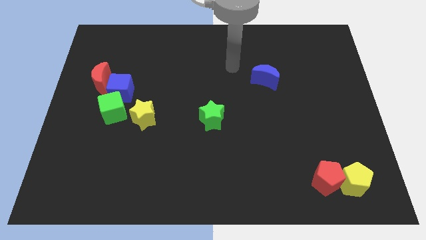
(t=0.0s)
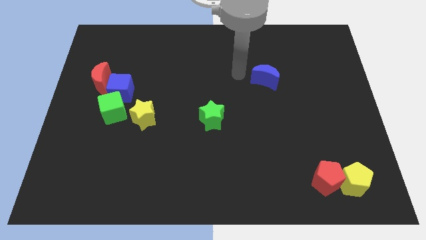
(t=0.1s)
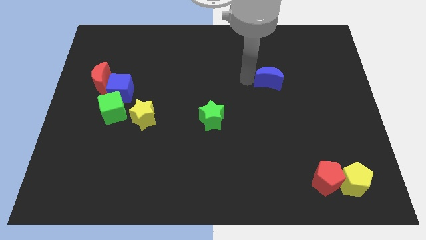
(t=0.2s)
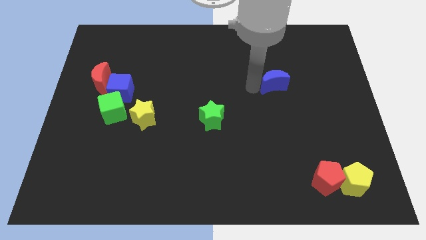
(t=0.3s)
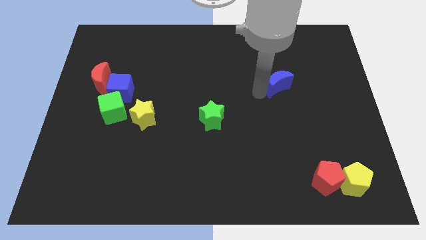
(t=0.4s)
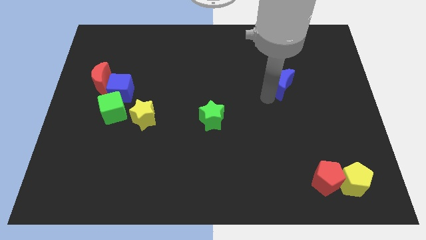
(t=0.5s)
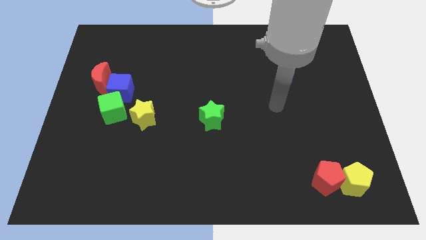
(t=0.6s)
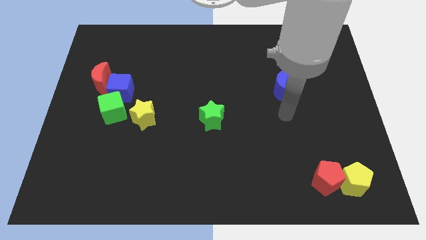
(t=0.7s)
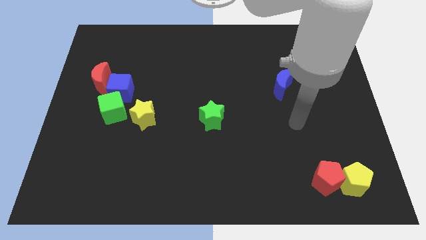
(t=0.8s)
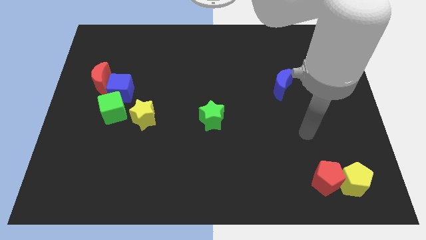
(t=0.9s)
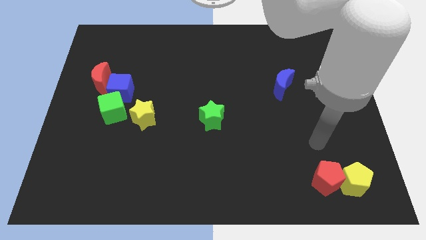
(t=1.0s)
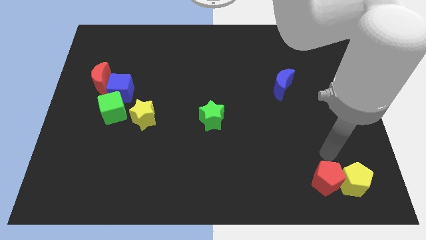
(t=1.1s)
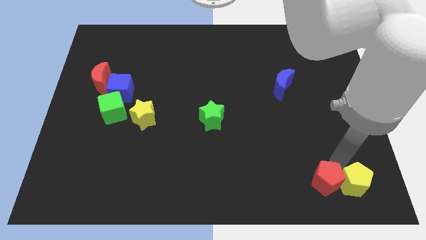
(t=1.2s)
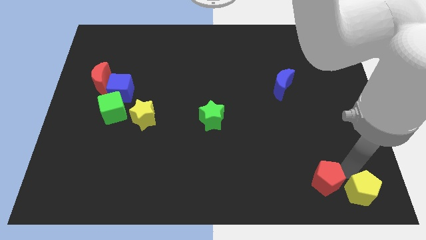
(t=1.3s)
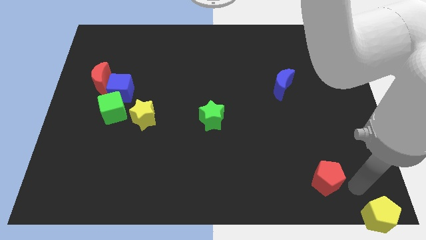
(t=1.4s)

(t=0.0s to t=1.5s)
pull the red pentagon apart from the yellow pentagon

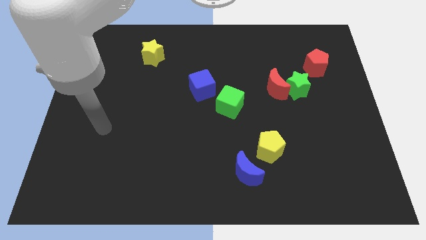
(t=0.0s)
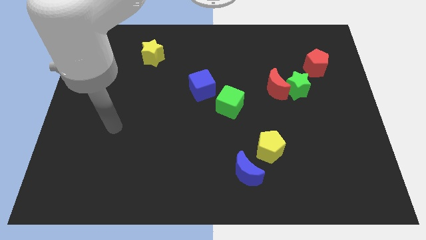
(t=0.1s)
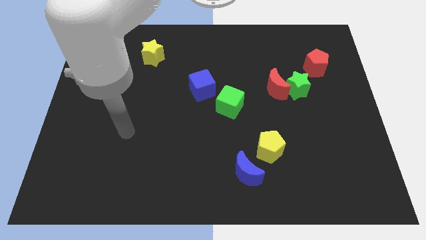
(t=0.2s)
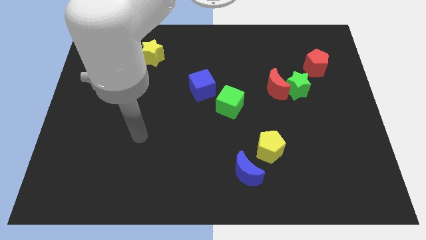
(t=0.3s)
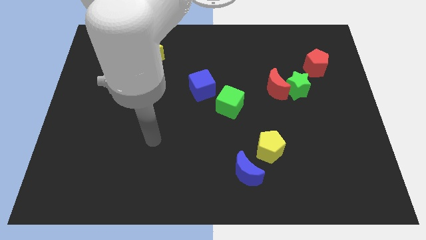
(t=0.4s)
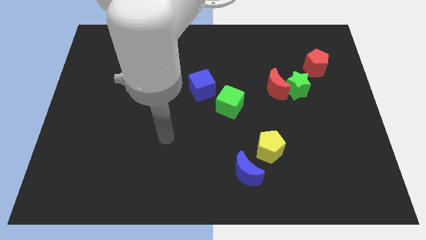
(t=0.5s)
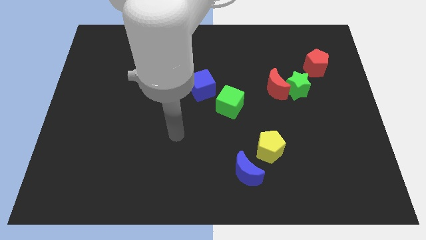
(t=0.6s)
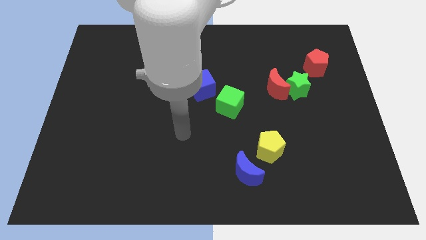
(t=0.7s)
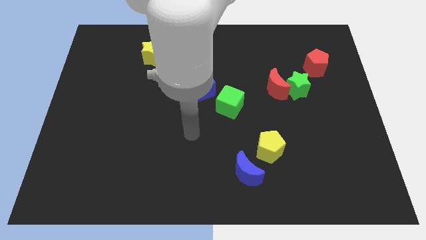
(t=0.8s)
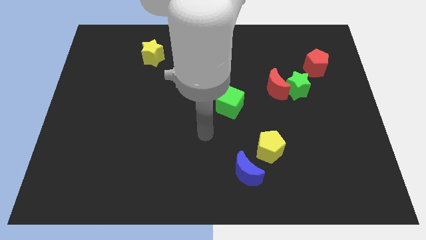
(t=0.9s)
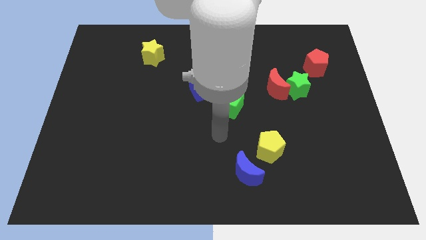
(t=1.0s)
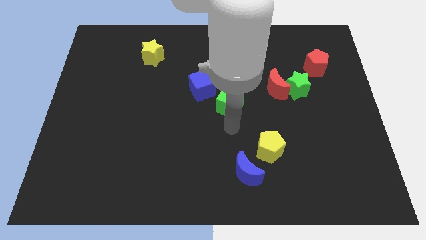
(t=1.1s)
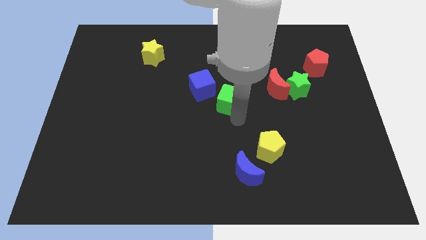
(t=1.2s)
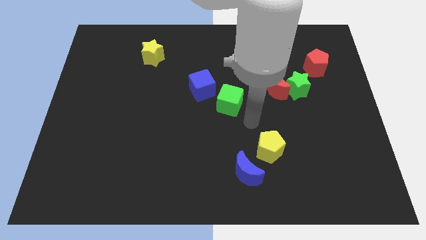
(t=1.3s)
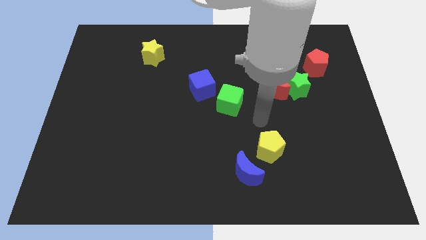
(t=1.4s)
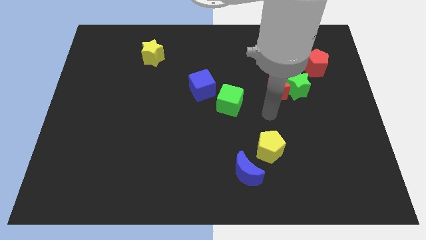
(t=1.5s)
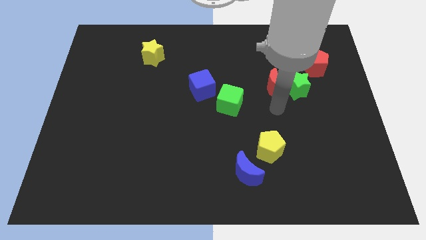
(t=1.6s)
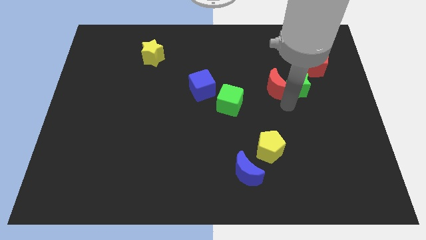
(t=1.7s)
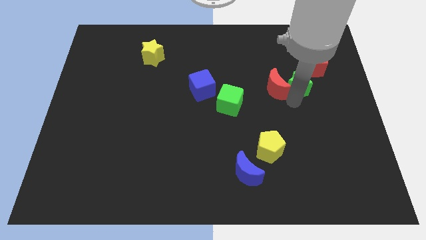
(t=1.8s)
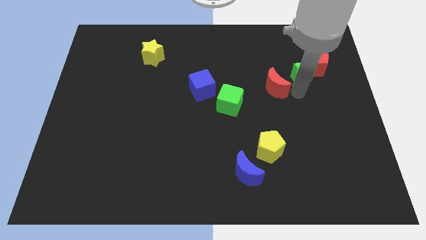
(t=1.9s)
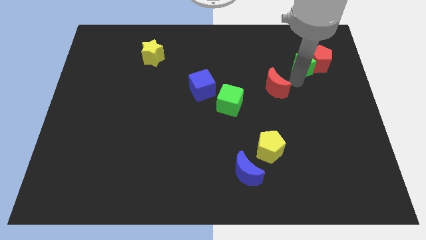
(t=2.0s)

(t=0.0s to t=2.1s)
move the red moon away from the green star

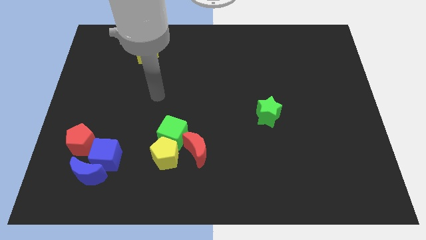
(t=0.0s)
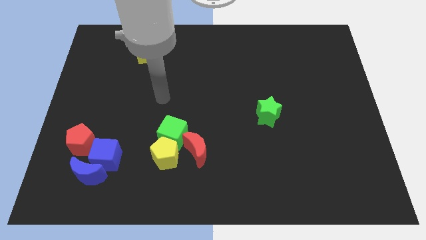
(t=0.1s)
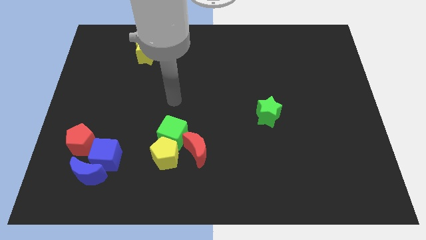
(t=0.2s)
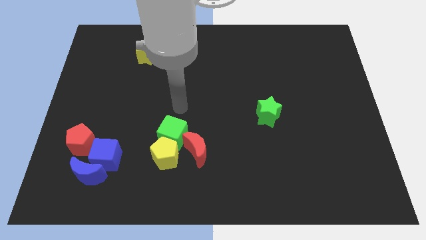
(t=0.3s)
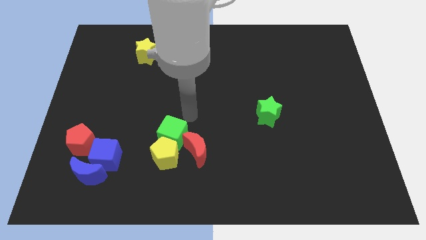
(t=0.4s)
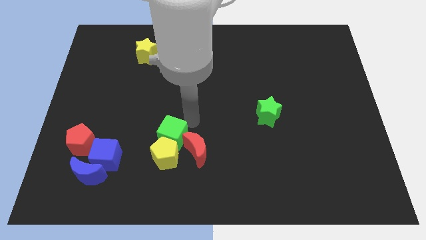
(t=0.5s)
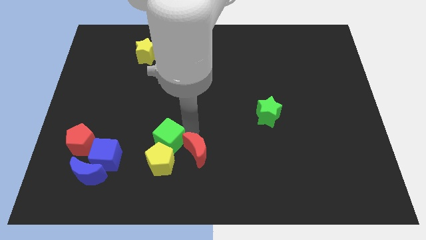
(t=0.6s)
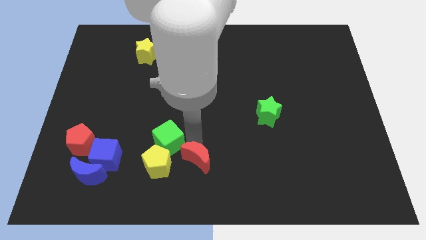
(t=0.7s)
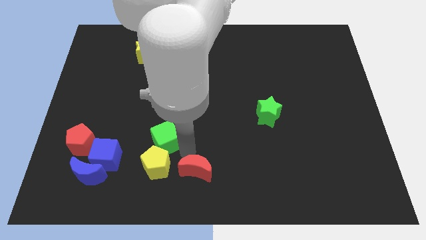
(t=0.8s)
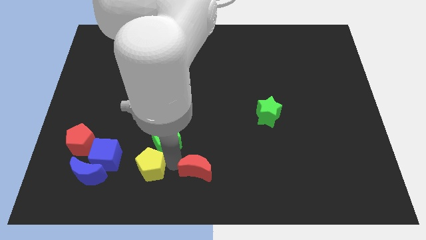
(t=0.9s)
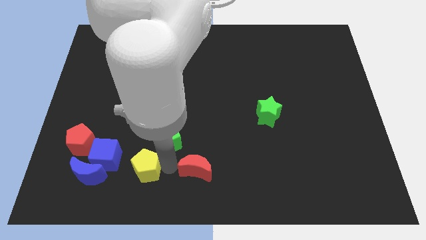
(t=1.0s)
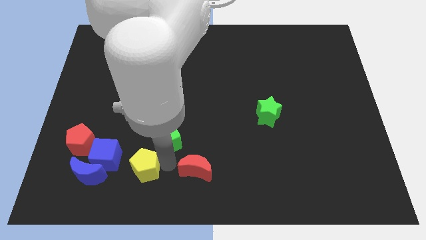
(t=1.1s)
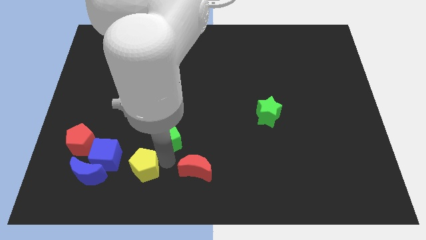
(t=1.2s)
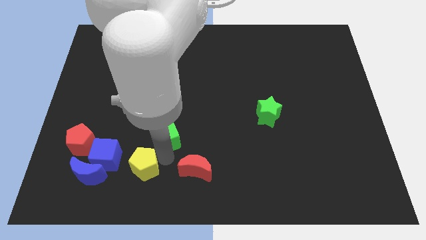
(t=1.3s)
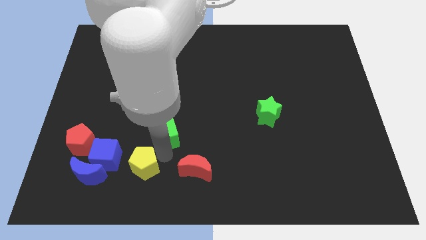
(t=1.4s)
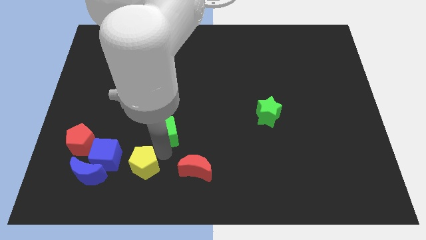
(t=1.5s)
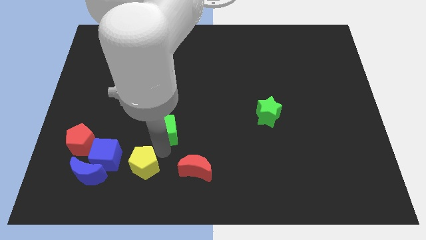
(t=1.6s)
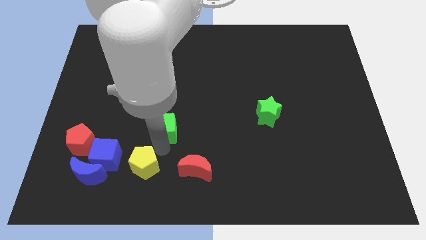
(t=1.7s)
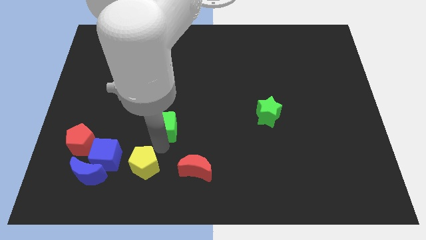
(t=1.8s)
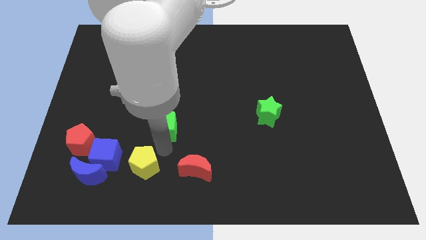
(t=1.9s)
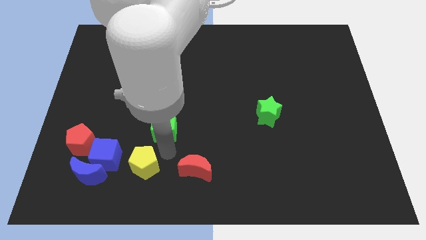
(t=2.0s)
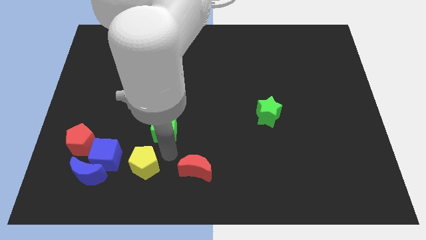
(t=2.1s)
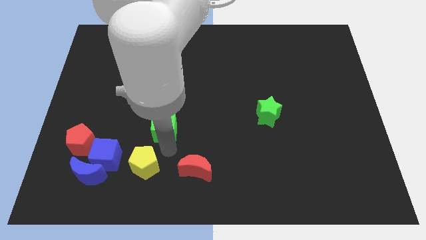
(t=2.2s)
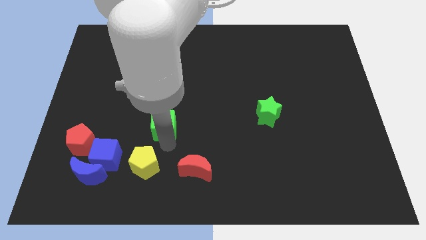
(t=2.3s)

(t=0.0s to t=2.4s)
move the green cube away from the yellow pentagon and red moon

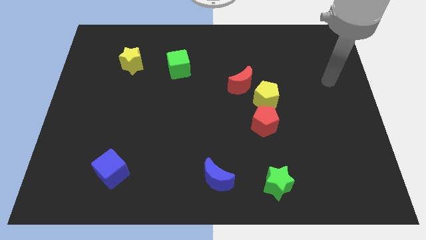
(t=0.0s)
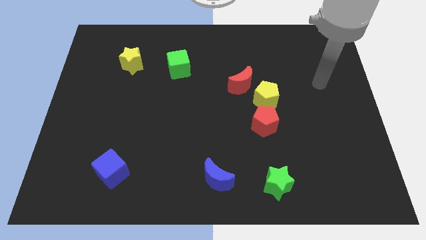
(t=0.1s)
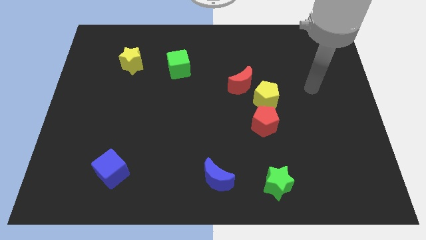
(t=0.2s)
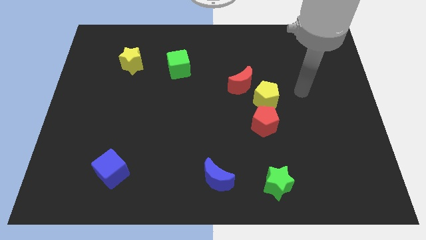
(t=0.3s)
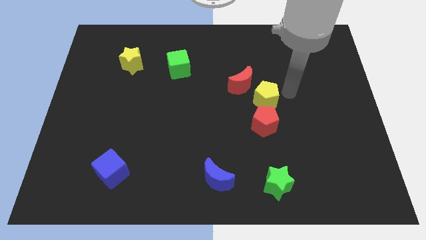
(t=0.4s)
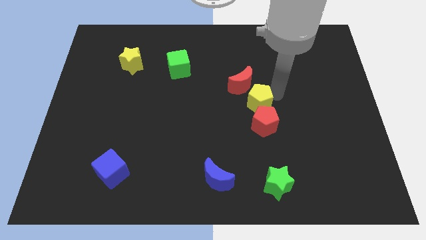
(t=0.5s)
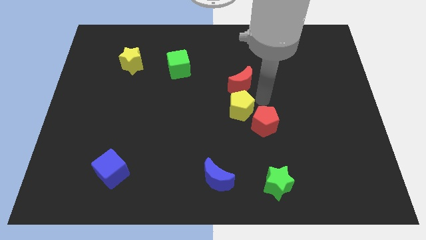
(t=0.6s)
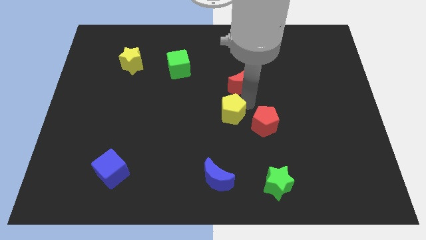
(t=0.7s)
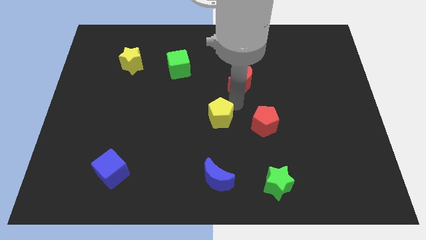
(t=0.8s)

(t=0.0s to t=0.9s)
pull the red moon apart from the yellow pentagon

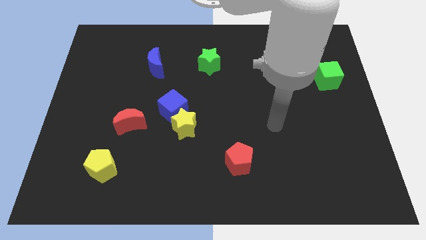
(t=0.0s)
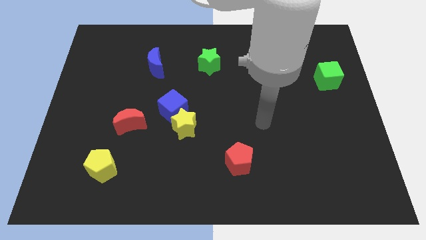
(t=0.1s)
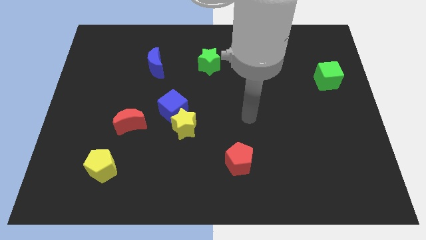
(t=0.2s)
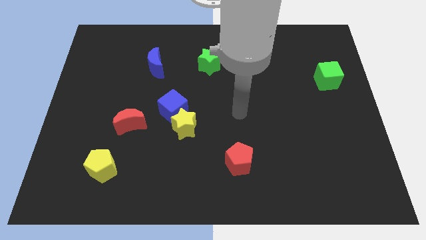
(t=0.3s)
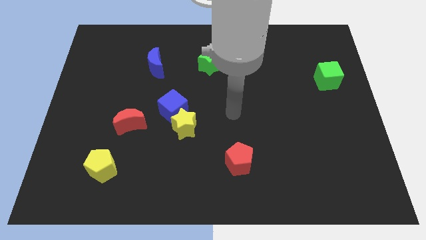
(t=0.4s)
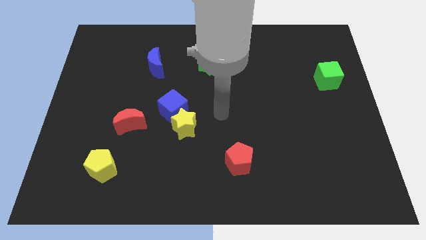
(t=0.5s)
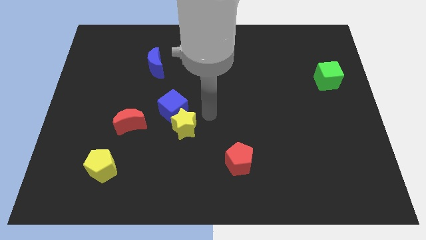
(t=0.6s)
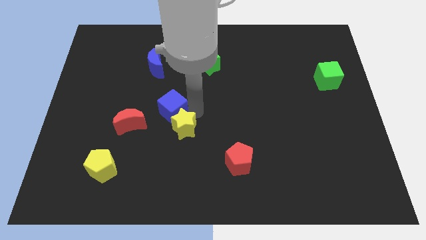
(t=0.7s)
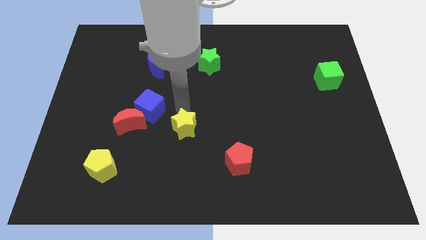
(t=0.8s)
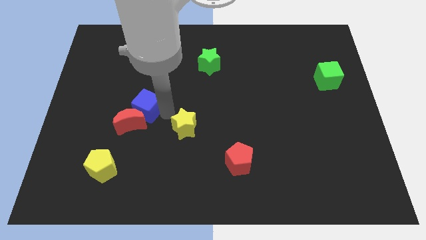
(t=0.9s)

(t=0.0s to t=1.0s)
move the yellow star away from the blue cube

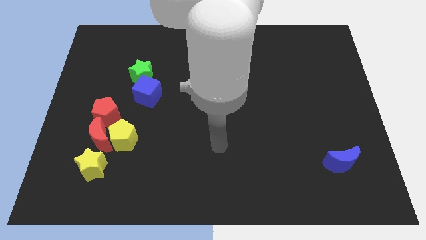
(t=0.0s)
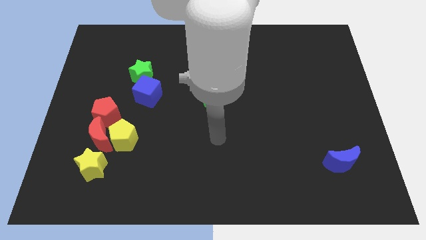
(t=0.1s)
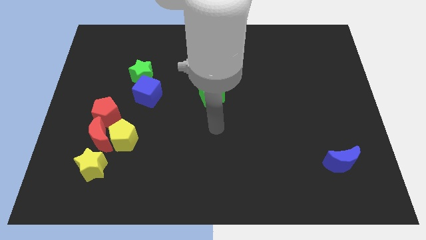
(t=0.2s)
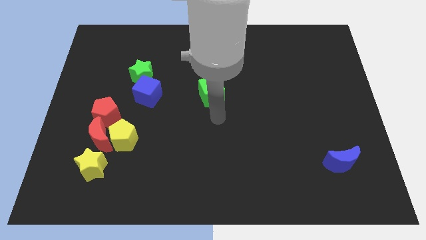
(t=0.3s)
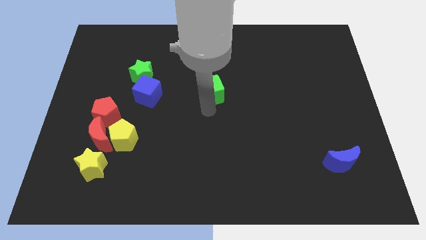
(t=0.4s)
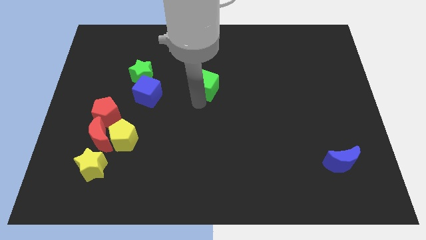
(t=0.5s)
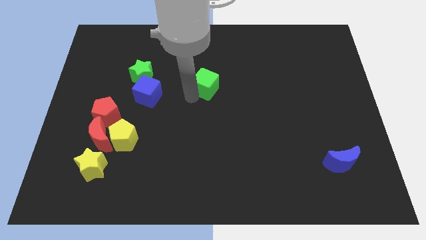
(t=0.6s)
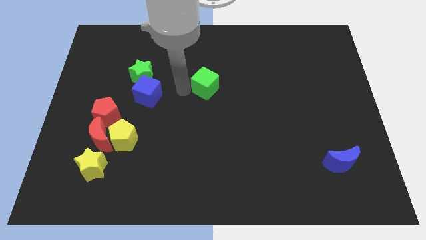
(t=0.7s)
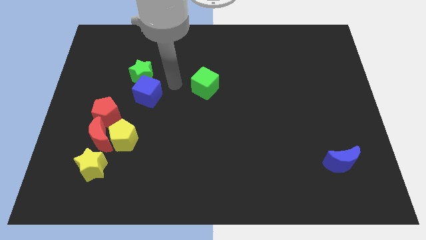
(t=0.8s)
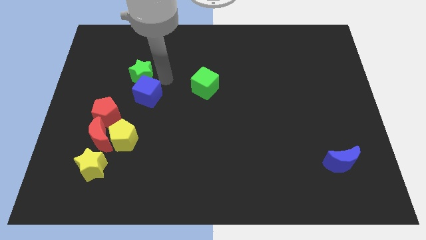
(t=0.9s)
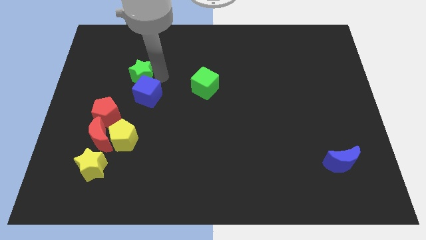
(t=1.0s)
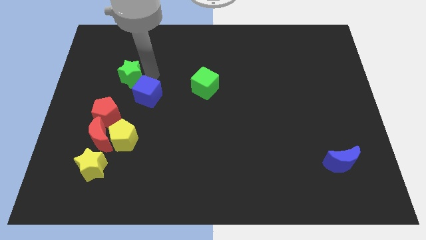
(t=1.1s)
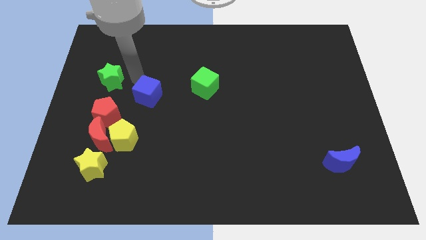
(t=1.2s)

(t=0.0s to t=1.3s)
separate the blue cube from the green star

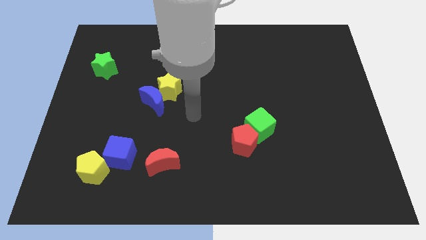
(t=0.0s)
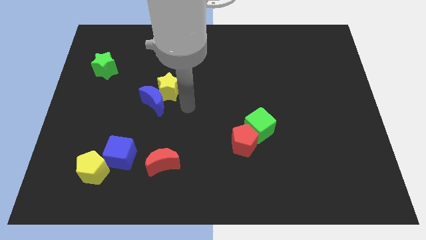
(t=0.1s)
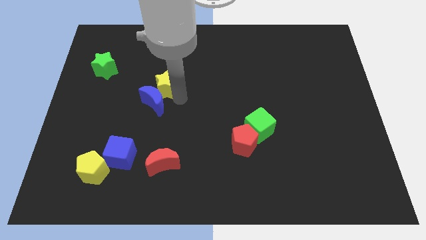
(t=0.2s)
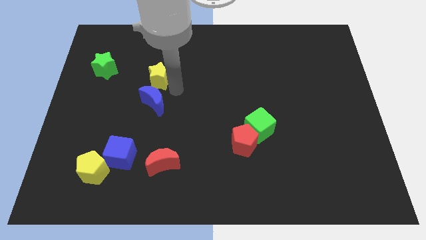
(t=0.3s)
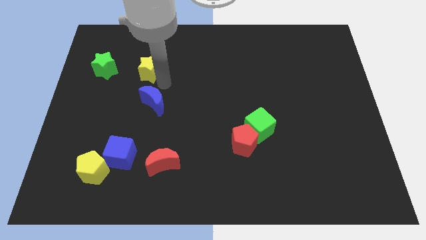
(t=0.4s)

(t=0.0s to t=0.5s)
separate the blue moon from the yellow star
